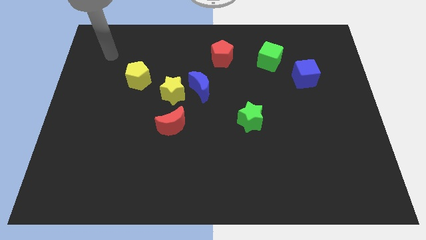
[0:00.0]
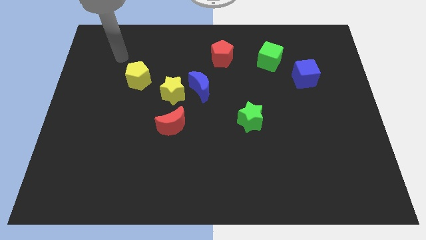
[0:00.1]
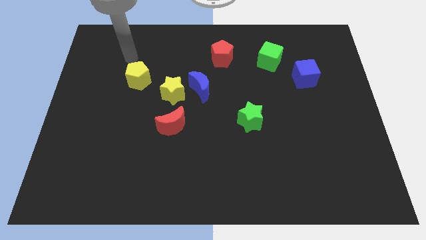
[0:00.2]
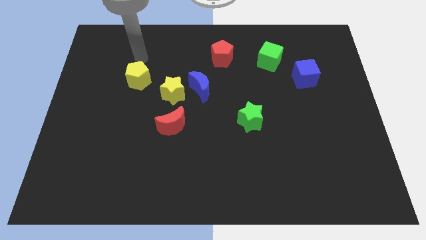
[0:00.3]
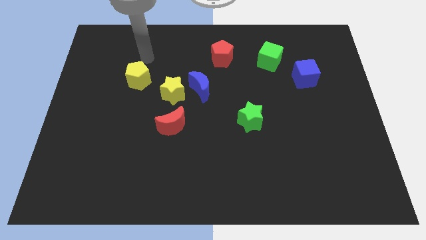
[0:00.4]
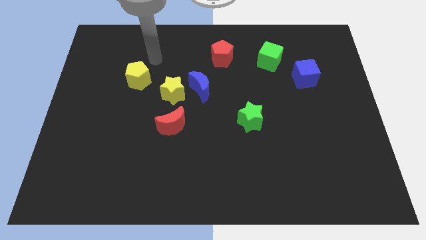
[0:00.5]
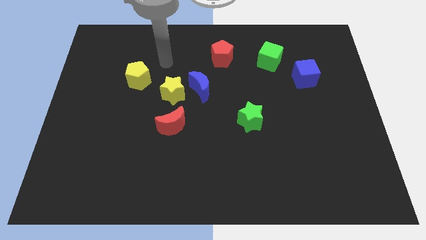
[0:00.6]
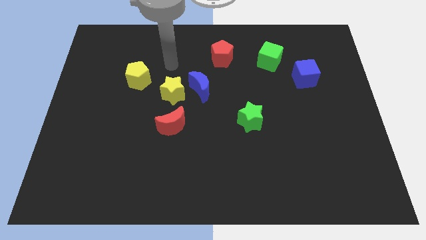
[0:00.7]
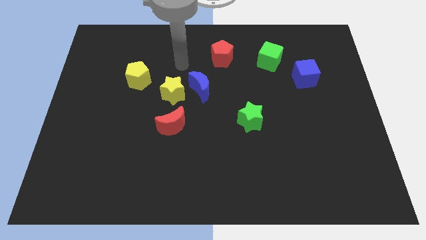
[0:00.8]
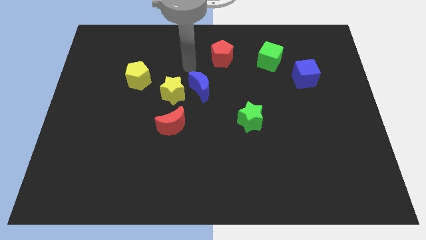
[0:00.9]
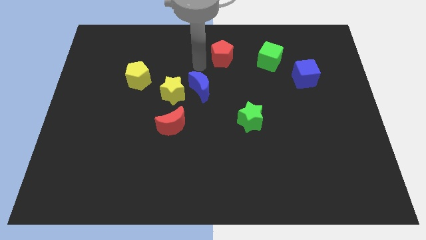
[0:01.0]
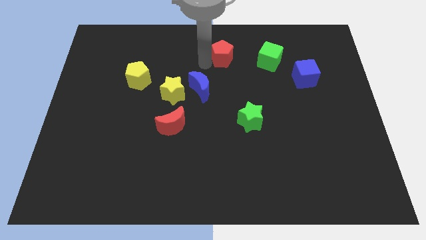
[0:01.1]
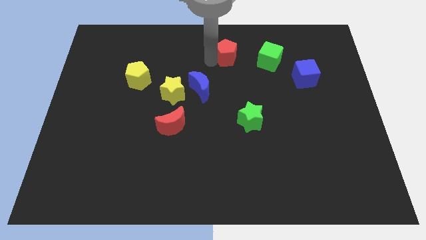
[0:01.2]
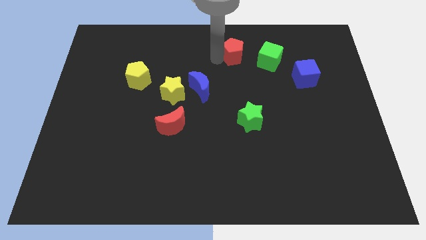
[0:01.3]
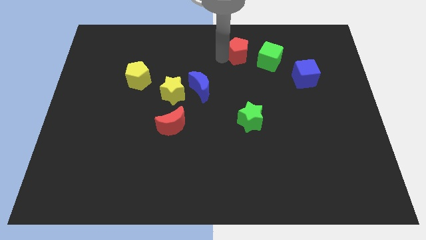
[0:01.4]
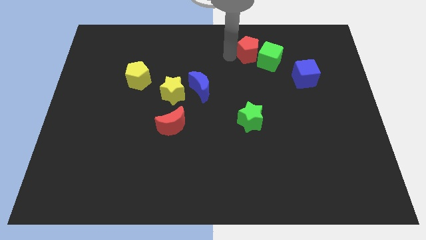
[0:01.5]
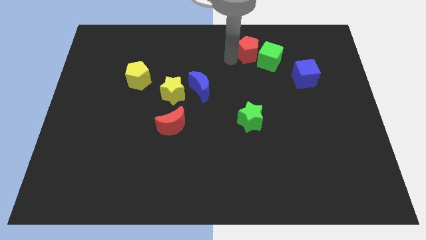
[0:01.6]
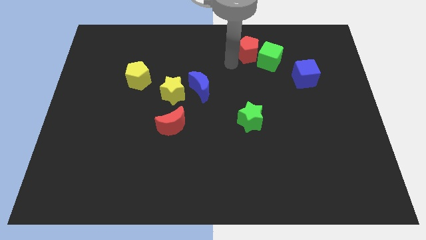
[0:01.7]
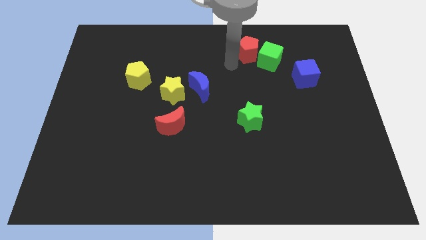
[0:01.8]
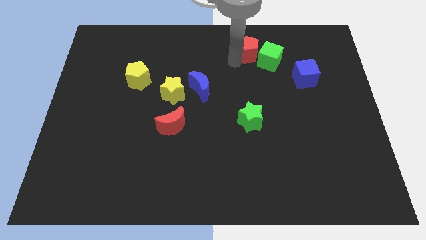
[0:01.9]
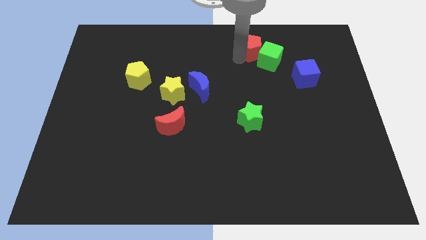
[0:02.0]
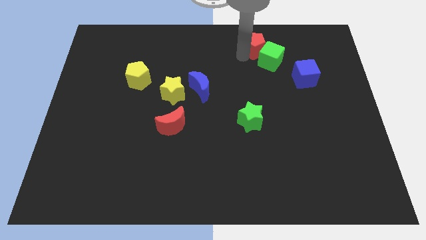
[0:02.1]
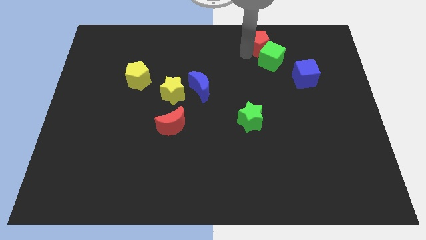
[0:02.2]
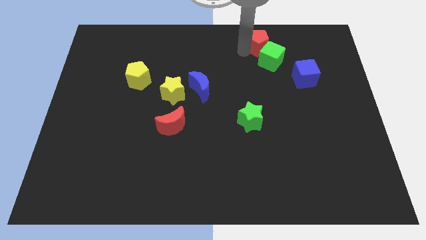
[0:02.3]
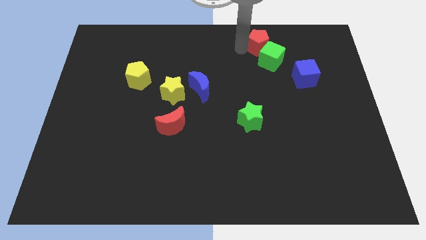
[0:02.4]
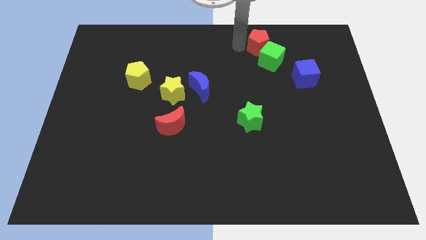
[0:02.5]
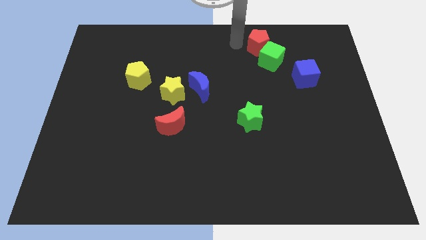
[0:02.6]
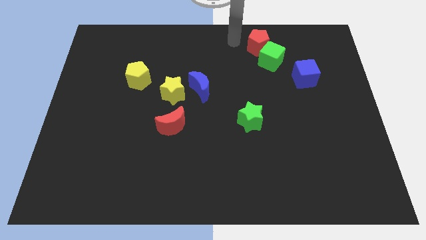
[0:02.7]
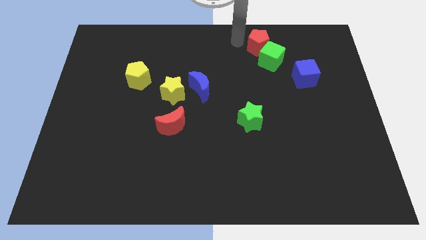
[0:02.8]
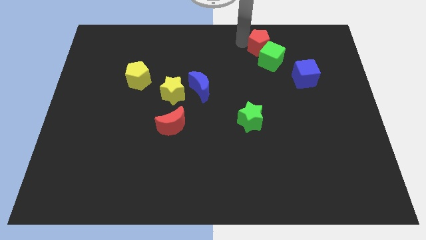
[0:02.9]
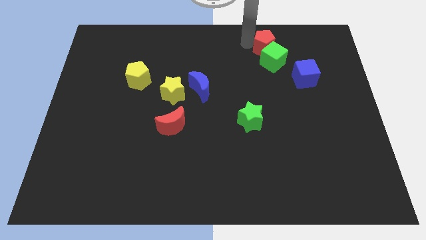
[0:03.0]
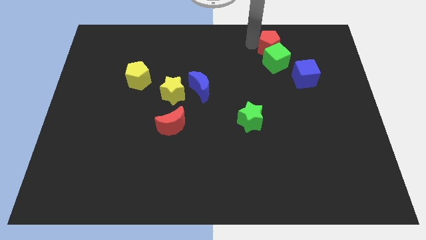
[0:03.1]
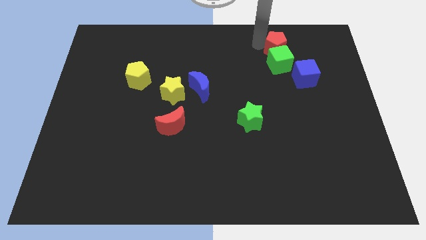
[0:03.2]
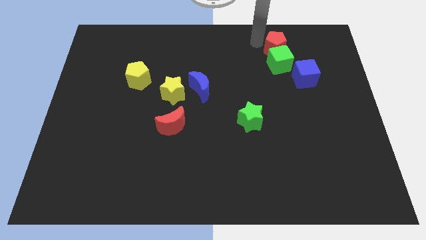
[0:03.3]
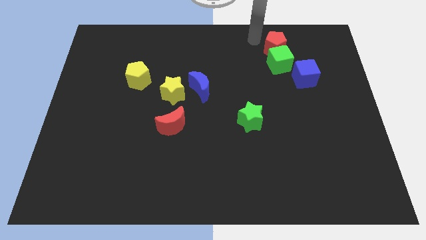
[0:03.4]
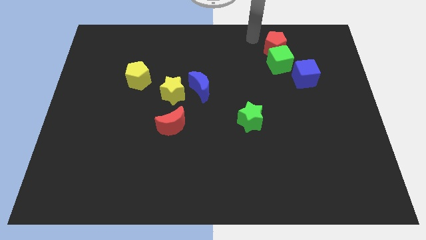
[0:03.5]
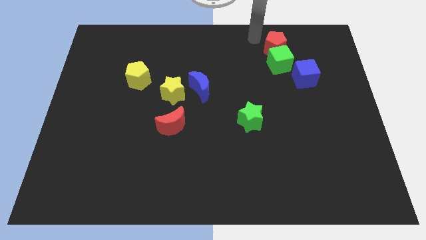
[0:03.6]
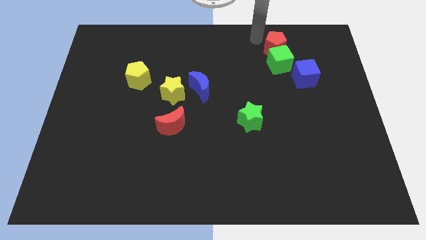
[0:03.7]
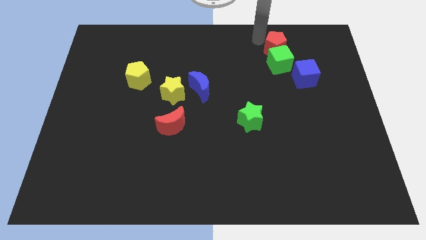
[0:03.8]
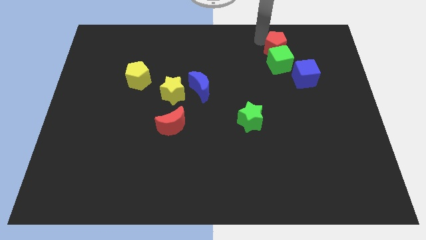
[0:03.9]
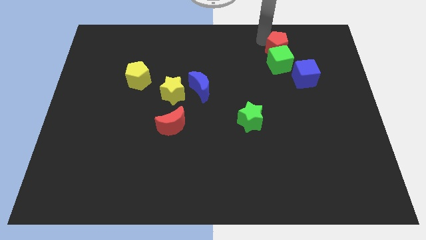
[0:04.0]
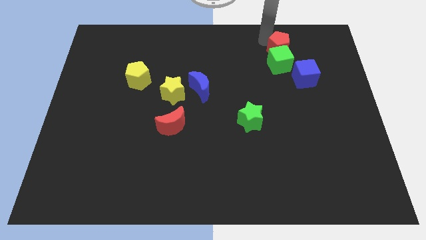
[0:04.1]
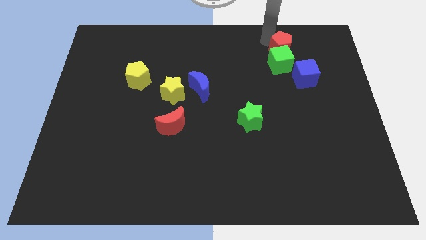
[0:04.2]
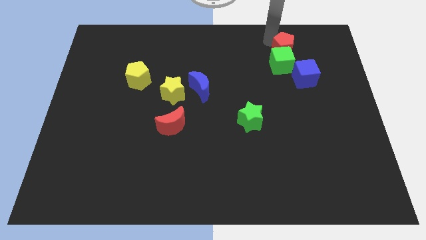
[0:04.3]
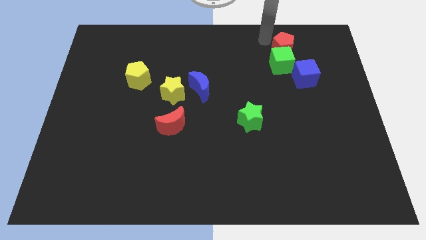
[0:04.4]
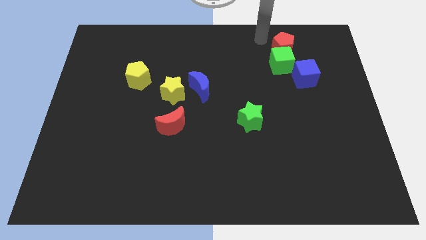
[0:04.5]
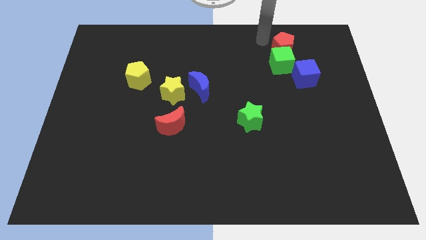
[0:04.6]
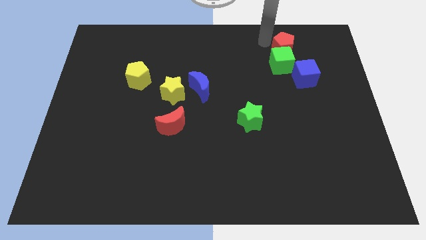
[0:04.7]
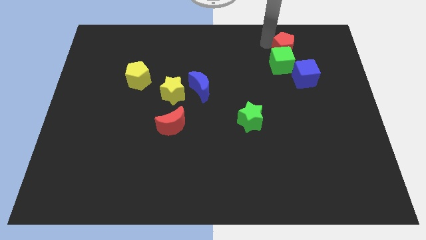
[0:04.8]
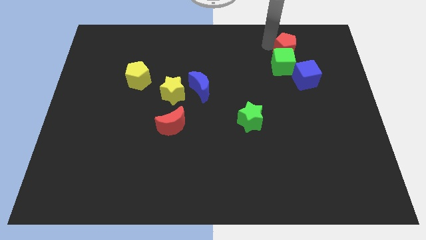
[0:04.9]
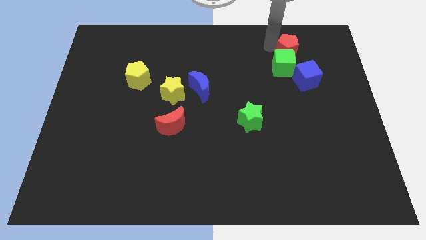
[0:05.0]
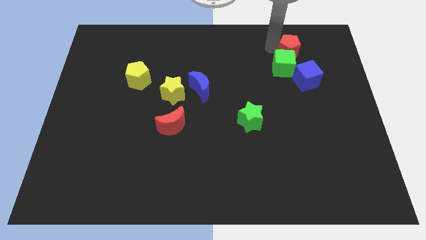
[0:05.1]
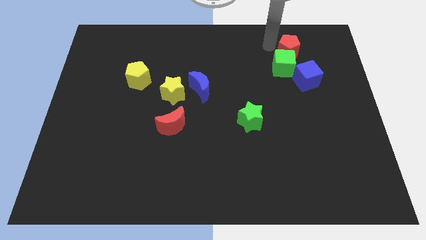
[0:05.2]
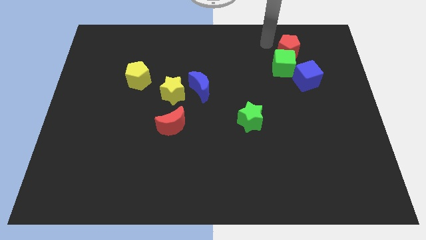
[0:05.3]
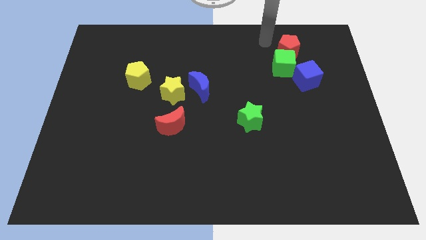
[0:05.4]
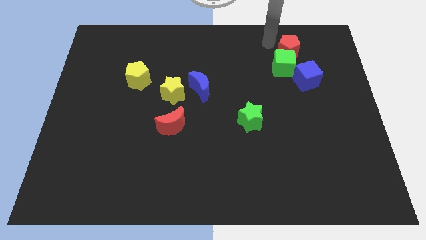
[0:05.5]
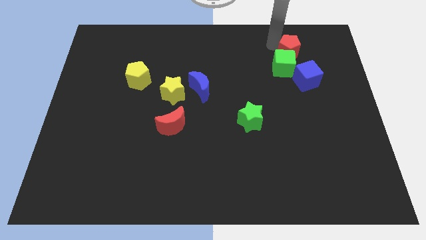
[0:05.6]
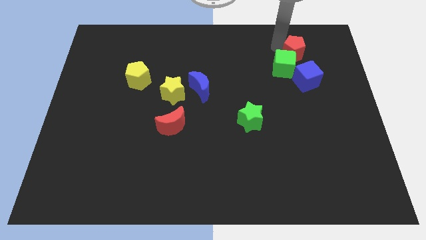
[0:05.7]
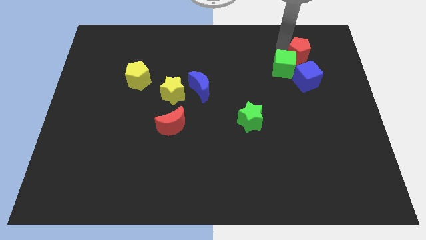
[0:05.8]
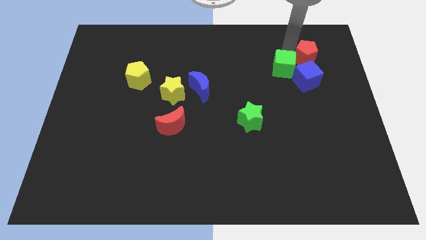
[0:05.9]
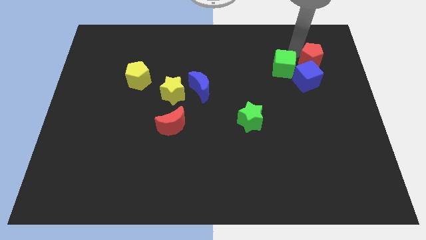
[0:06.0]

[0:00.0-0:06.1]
put the red pentagon to the top right side of the blue cube
